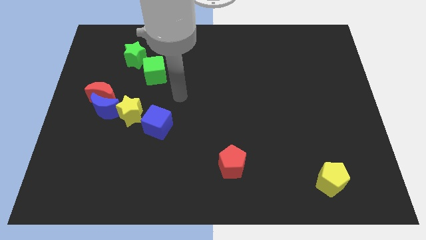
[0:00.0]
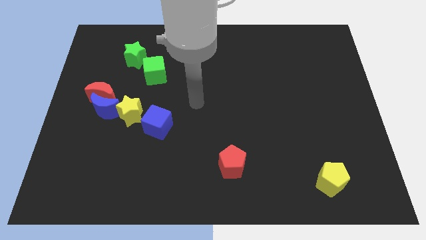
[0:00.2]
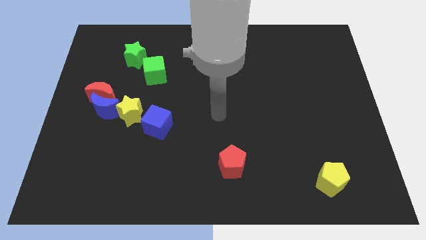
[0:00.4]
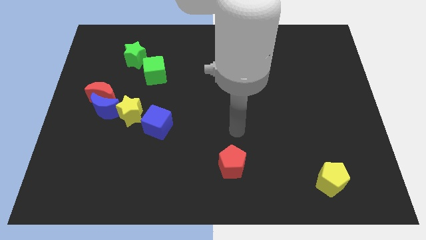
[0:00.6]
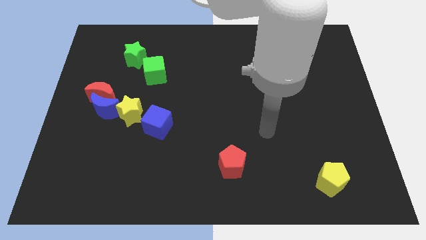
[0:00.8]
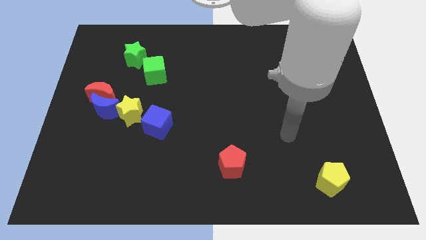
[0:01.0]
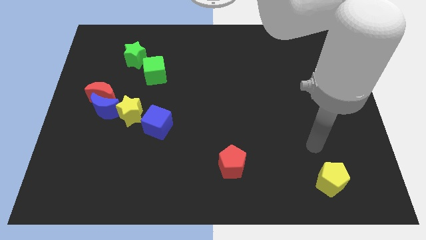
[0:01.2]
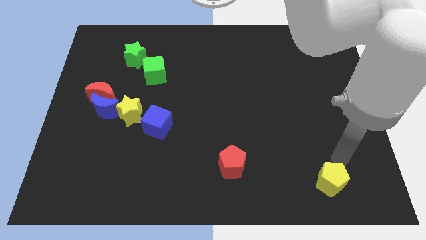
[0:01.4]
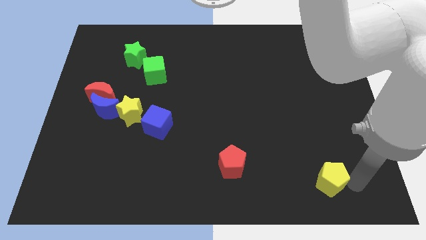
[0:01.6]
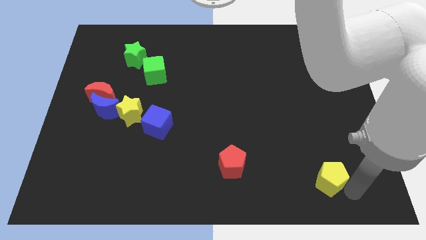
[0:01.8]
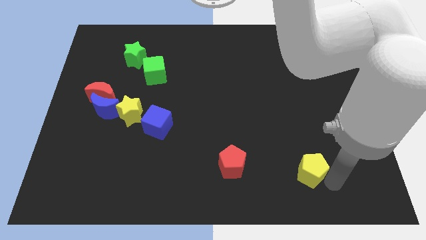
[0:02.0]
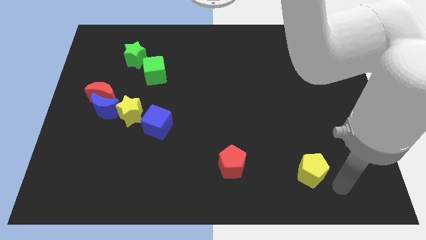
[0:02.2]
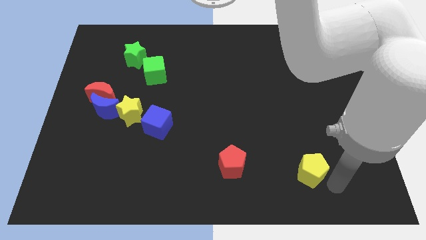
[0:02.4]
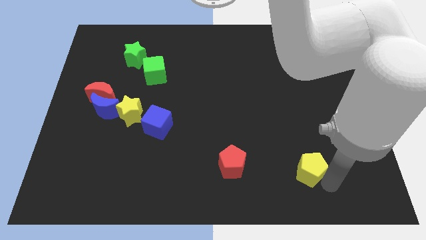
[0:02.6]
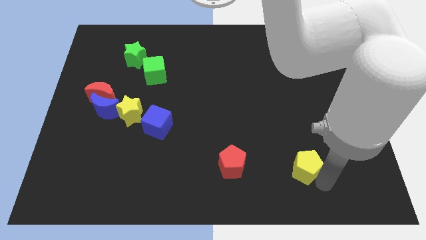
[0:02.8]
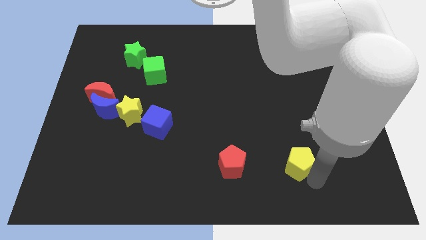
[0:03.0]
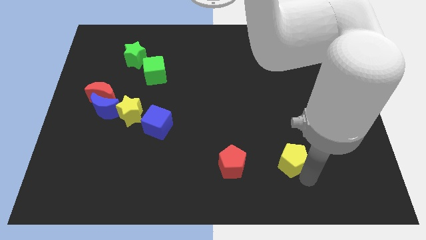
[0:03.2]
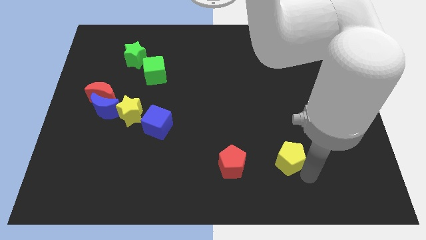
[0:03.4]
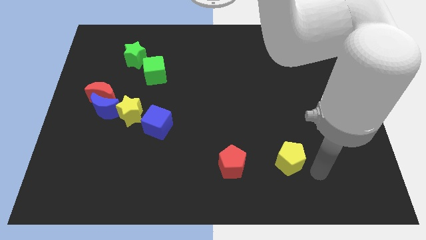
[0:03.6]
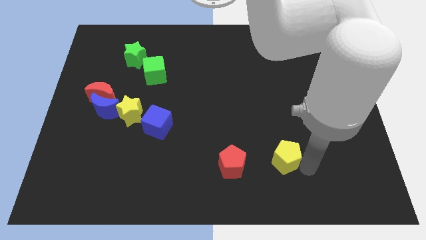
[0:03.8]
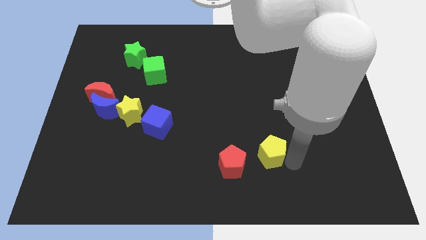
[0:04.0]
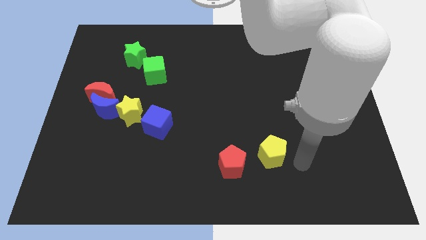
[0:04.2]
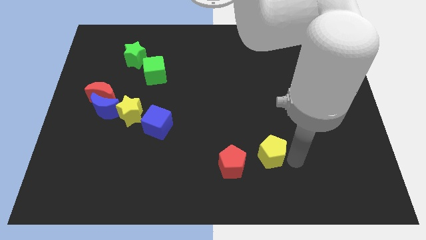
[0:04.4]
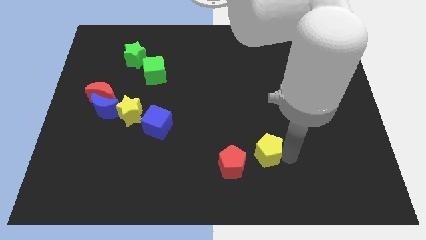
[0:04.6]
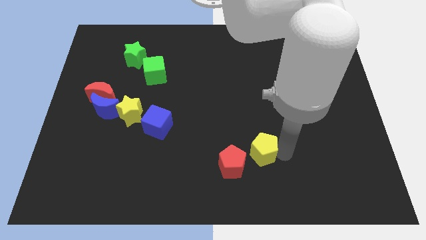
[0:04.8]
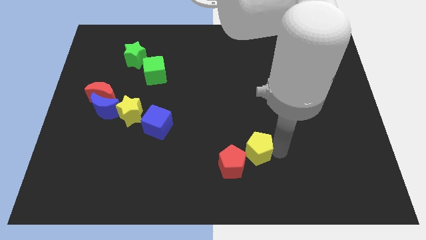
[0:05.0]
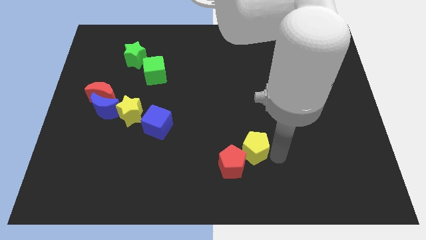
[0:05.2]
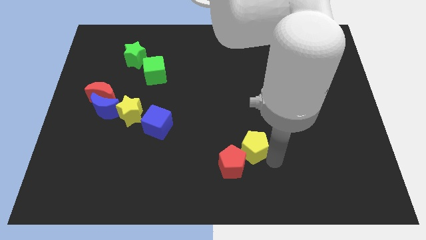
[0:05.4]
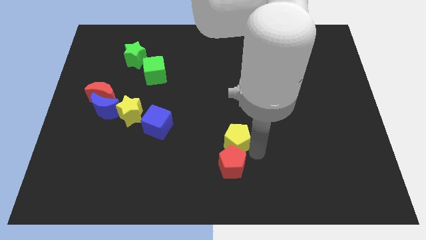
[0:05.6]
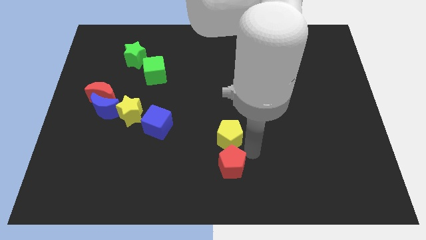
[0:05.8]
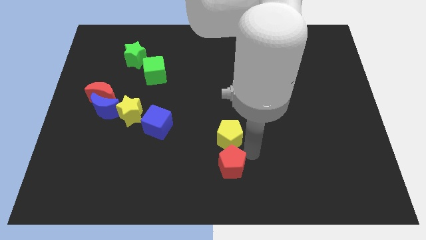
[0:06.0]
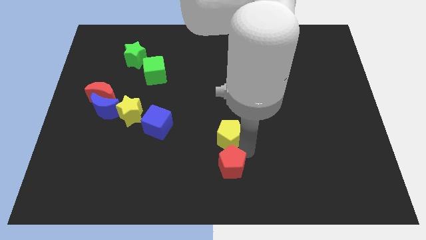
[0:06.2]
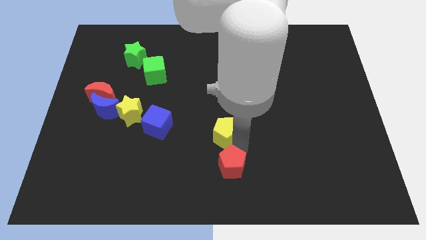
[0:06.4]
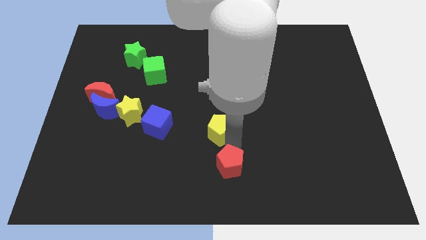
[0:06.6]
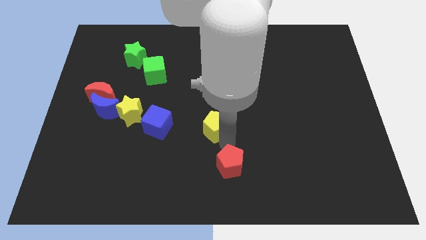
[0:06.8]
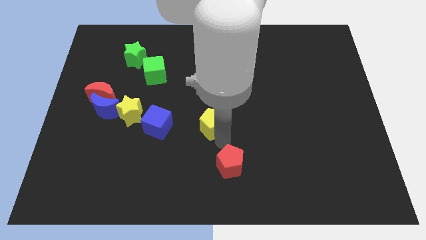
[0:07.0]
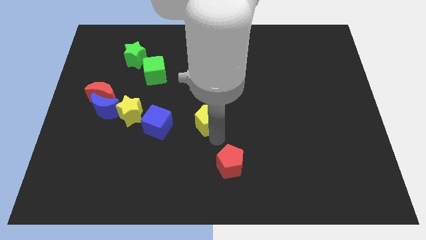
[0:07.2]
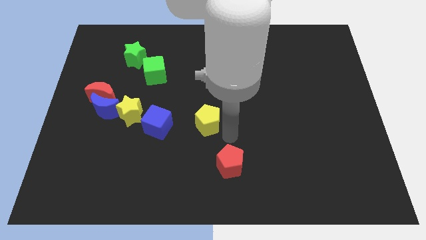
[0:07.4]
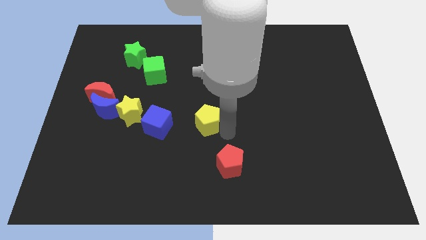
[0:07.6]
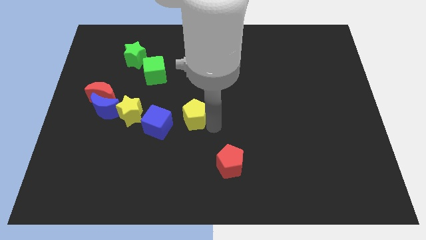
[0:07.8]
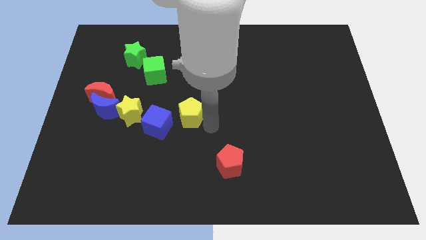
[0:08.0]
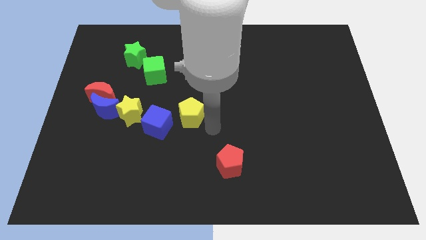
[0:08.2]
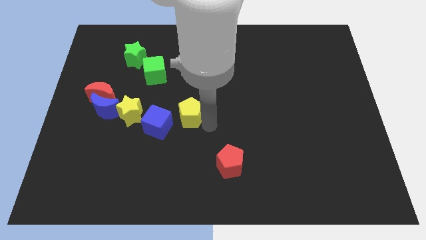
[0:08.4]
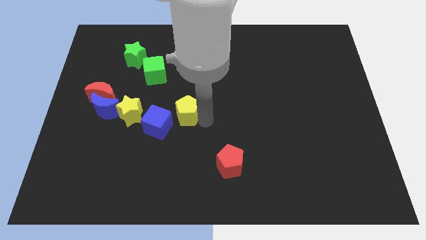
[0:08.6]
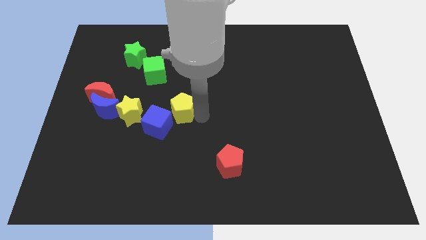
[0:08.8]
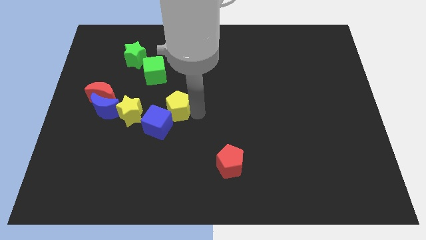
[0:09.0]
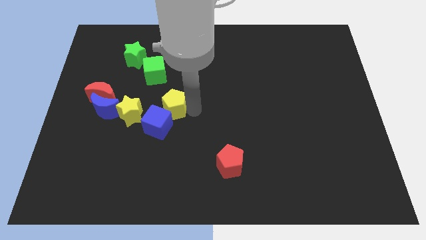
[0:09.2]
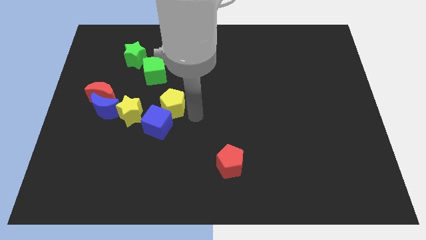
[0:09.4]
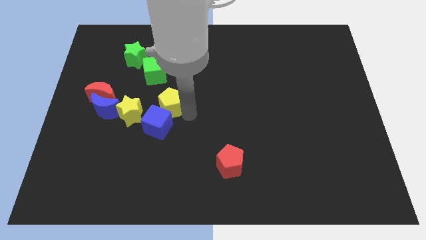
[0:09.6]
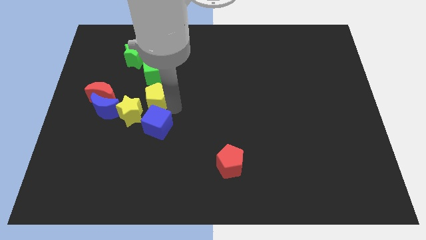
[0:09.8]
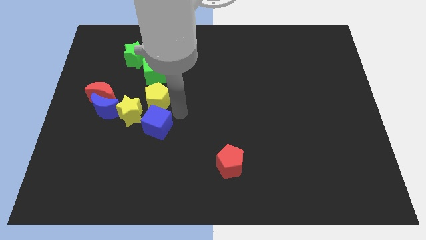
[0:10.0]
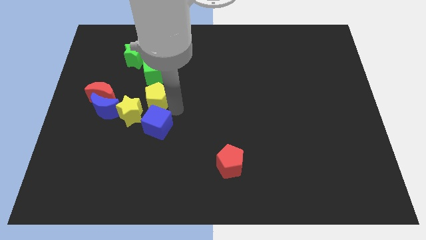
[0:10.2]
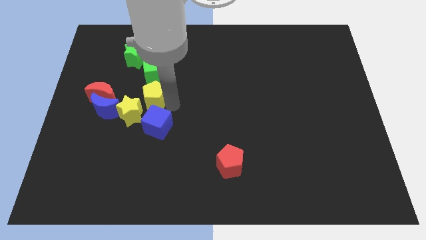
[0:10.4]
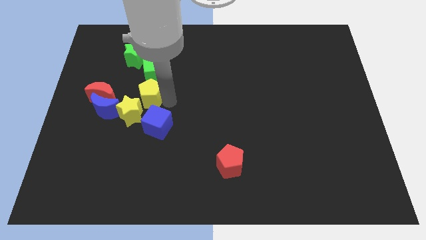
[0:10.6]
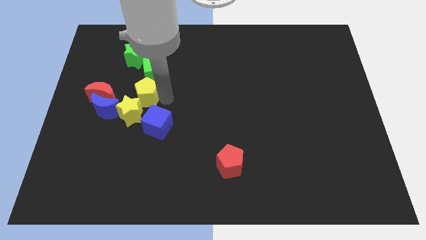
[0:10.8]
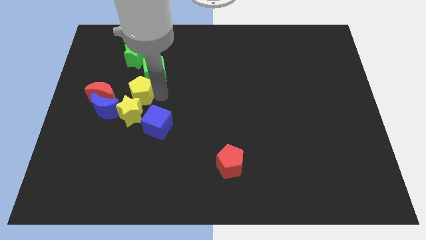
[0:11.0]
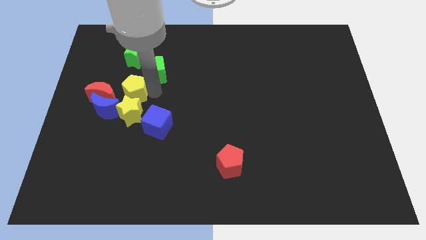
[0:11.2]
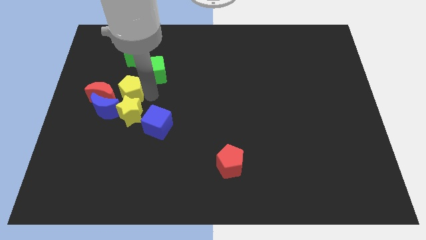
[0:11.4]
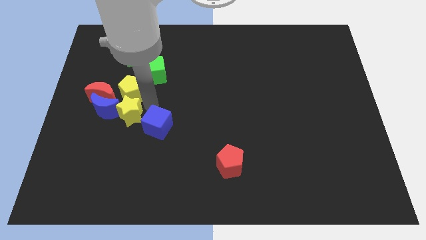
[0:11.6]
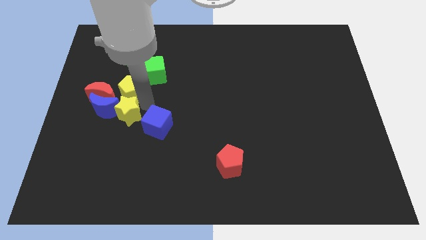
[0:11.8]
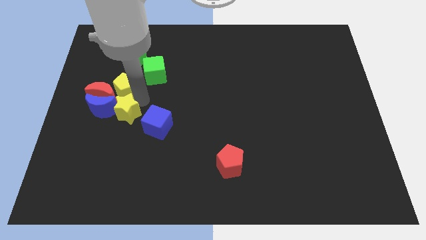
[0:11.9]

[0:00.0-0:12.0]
slide the yellow pentagon above the blue moon

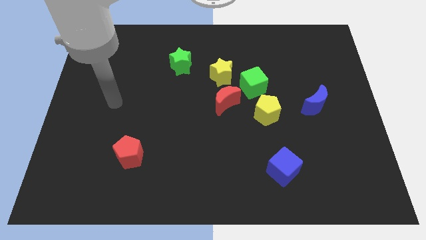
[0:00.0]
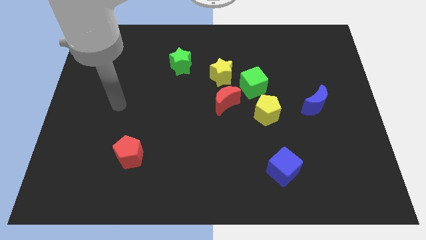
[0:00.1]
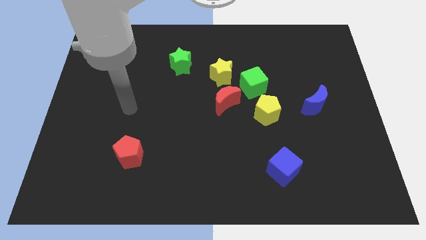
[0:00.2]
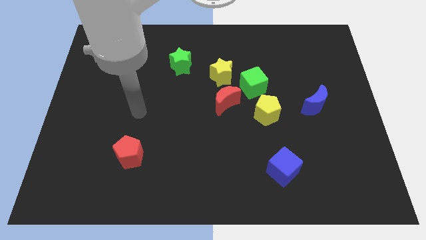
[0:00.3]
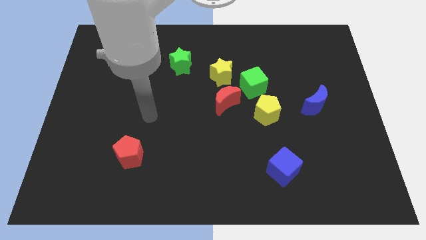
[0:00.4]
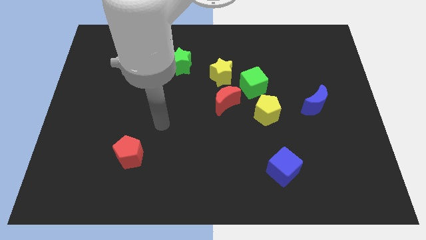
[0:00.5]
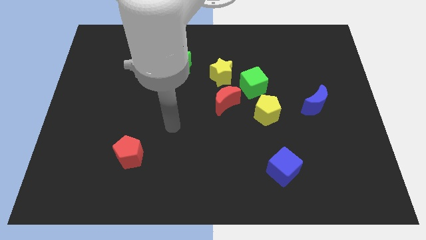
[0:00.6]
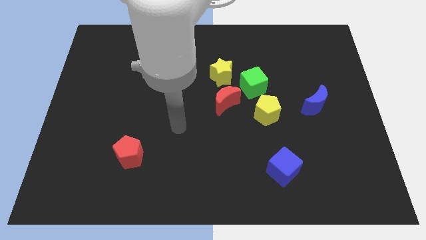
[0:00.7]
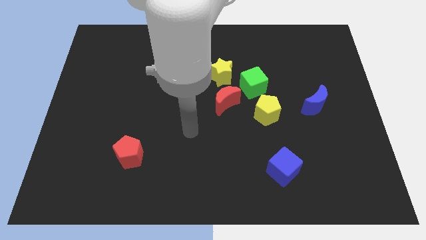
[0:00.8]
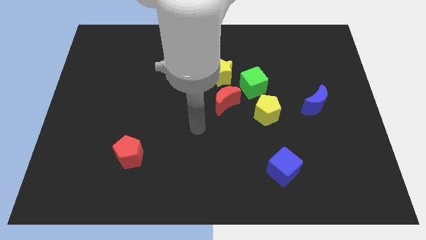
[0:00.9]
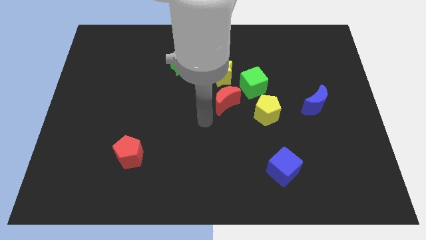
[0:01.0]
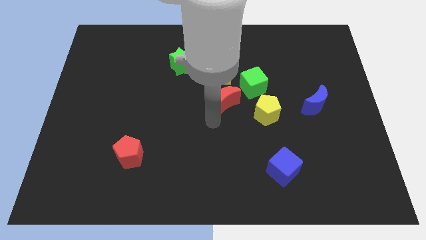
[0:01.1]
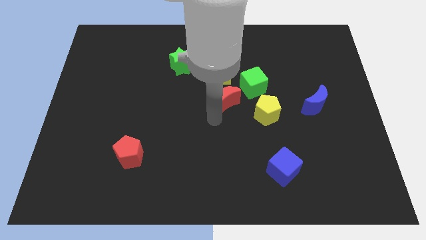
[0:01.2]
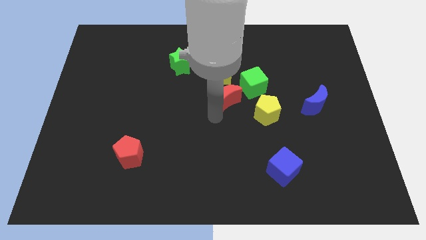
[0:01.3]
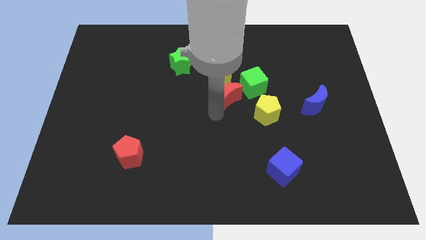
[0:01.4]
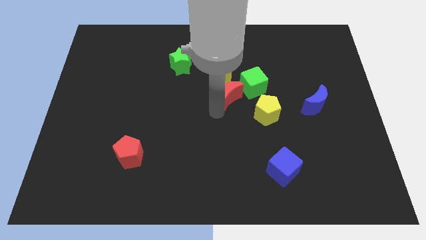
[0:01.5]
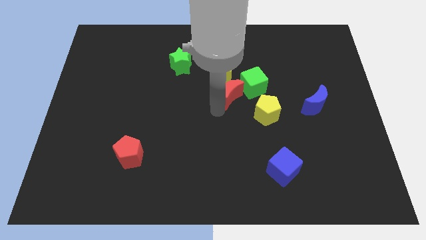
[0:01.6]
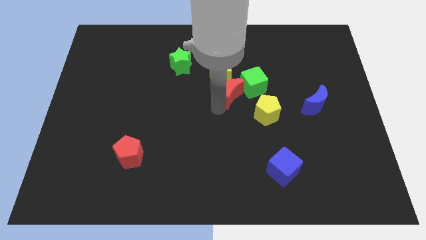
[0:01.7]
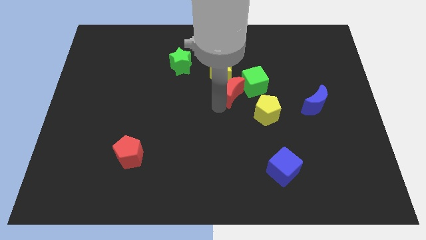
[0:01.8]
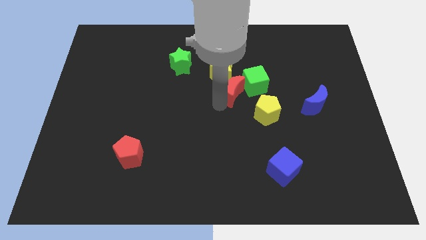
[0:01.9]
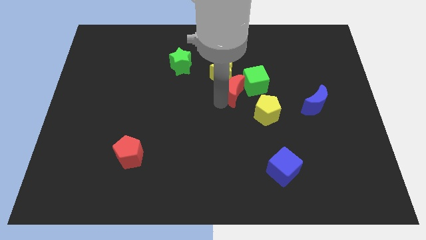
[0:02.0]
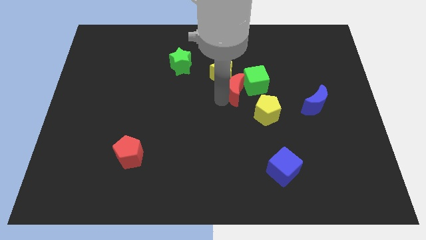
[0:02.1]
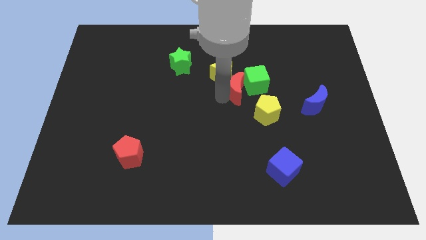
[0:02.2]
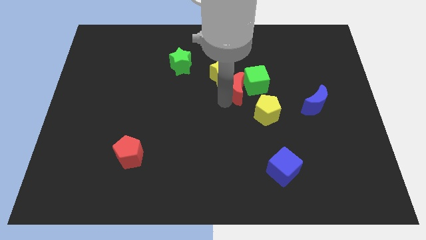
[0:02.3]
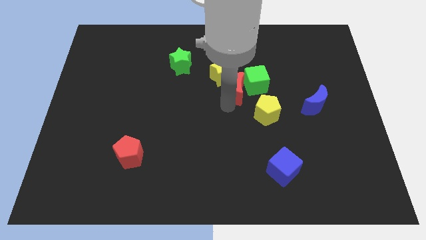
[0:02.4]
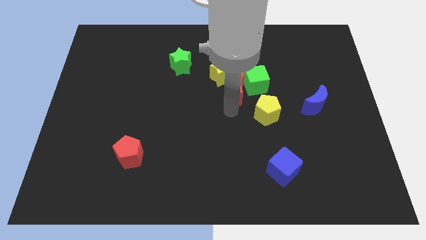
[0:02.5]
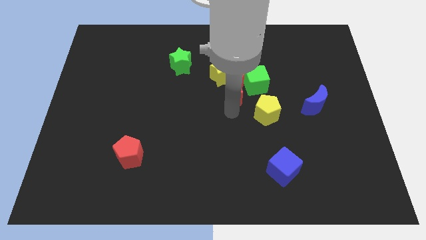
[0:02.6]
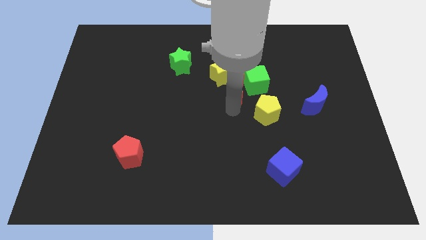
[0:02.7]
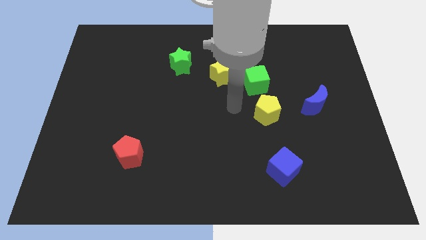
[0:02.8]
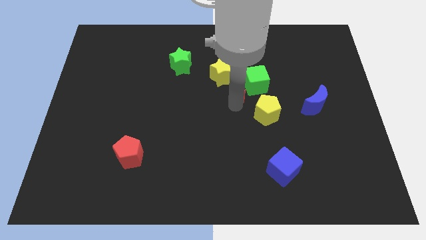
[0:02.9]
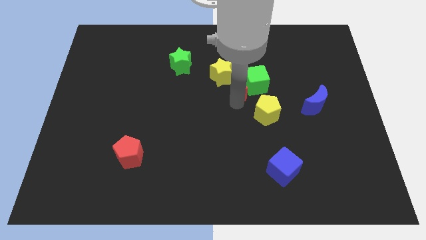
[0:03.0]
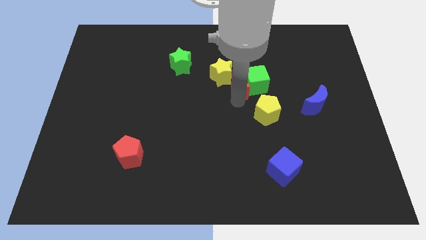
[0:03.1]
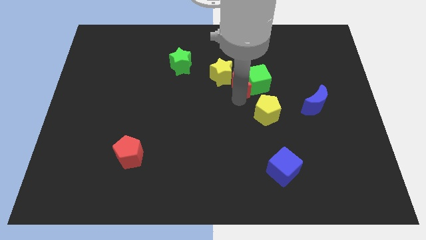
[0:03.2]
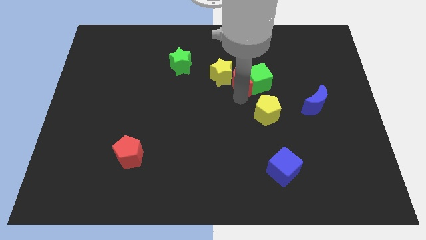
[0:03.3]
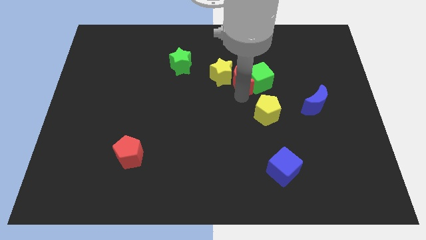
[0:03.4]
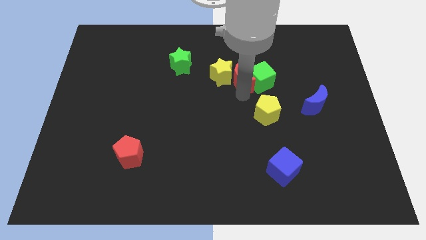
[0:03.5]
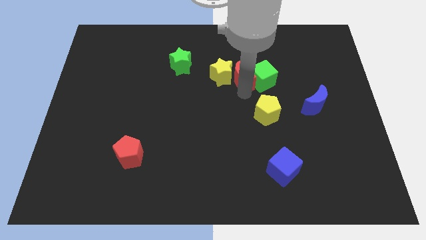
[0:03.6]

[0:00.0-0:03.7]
put the red moon to the top right of the yellow star
